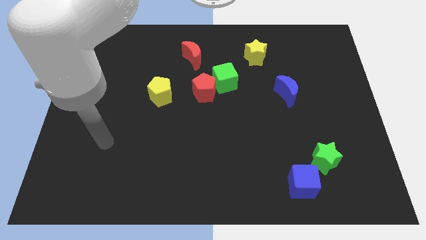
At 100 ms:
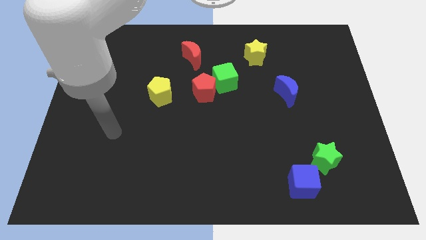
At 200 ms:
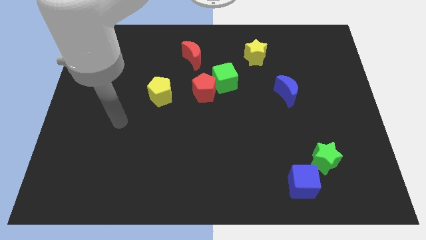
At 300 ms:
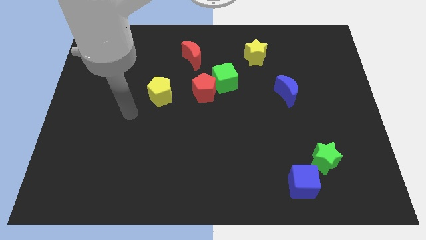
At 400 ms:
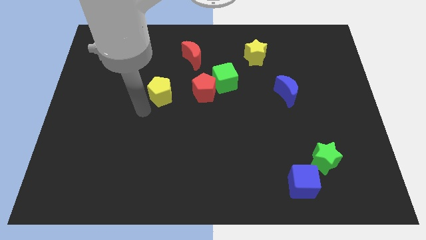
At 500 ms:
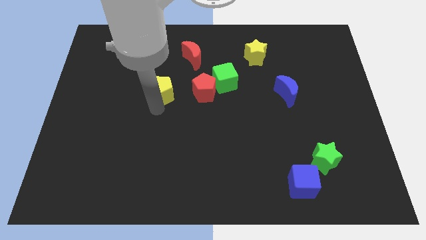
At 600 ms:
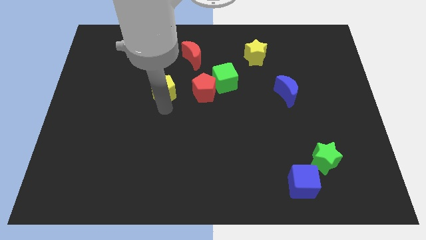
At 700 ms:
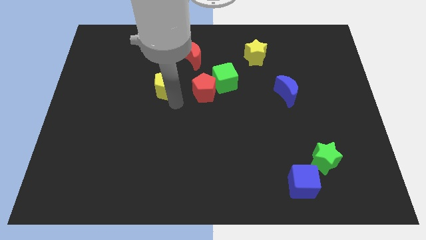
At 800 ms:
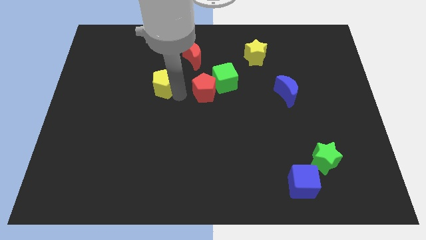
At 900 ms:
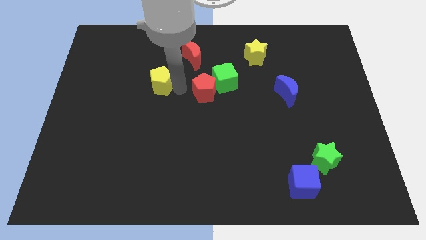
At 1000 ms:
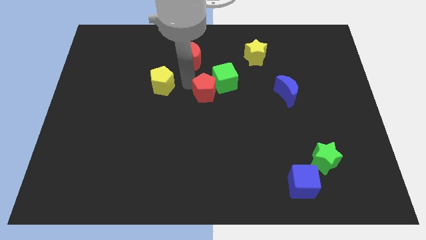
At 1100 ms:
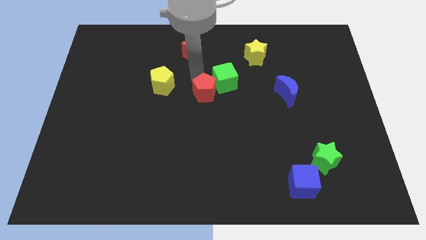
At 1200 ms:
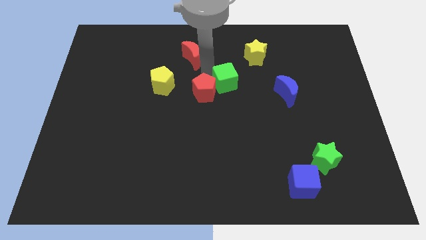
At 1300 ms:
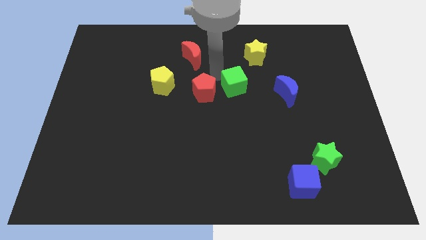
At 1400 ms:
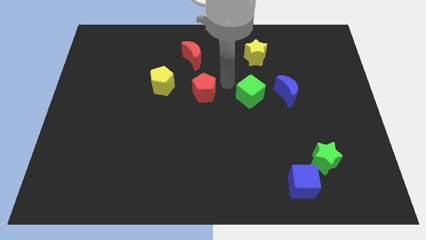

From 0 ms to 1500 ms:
move the red pentagon away from the green cube

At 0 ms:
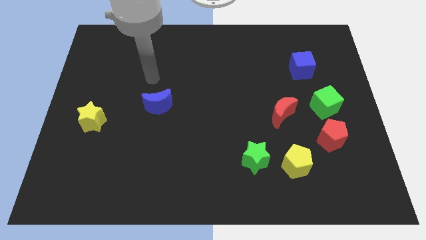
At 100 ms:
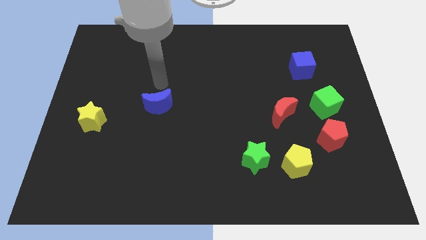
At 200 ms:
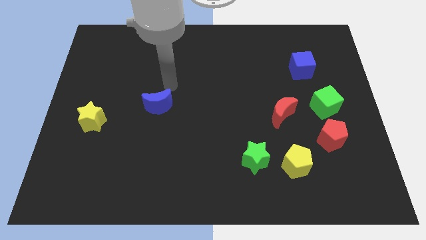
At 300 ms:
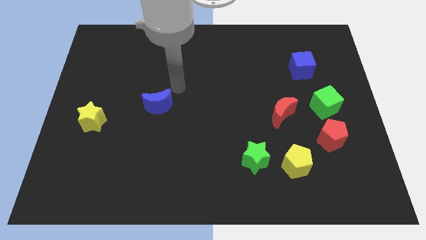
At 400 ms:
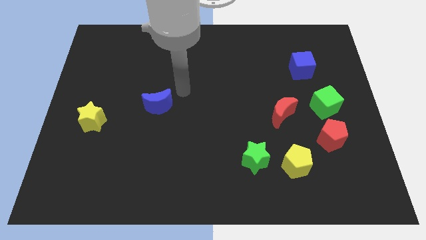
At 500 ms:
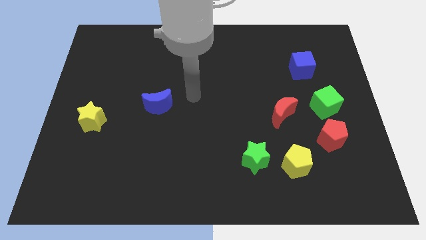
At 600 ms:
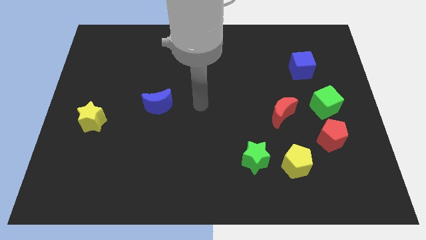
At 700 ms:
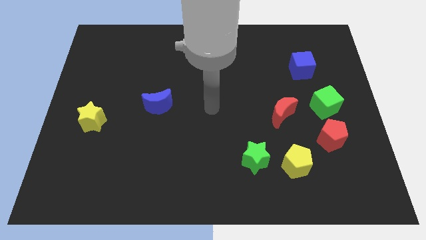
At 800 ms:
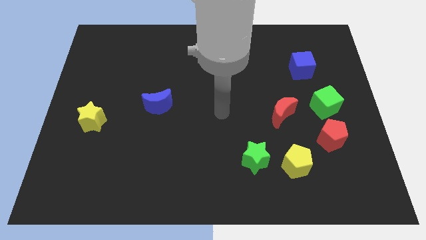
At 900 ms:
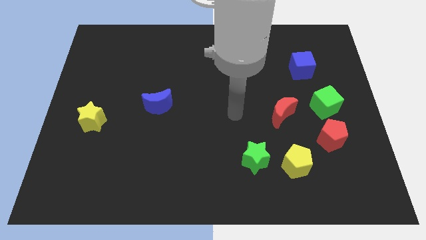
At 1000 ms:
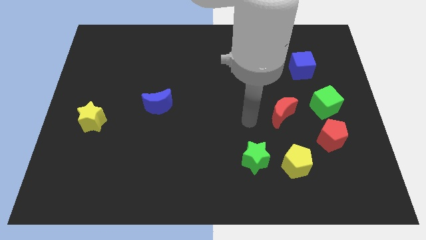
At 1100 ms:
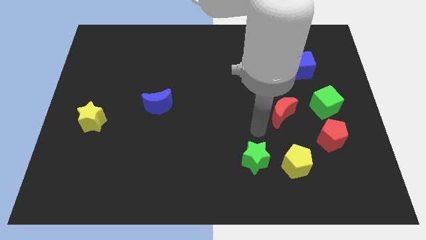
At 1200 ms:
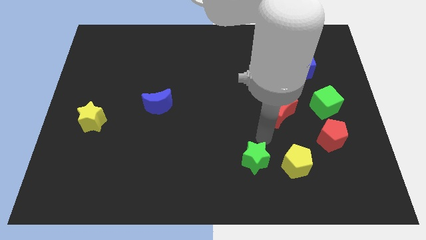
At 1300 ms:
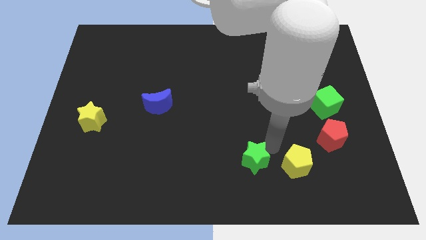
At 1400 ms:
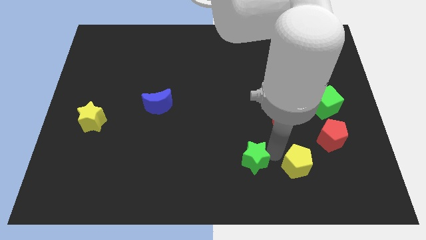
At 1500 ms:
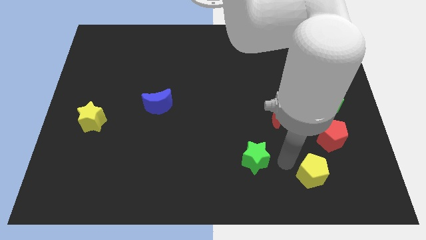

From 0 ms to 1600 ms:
move the green star away from the yellow pentagon

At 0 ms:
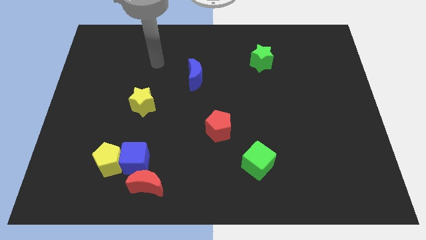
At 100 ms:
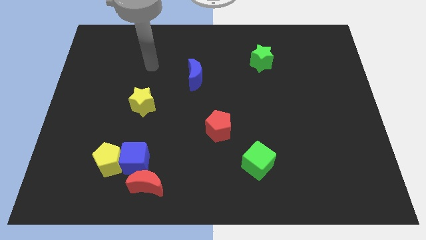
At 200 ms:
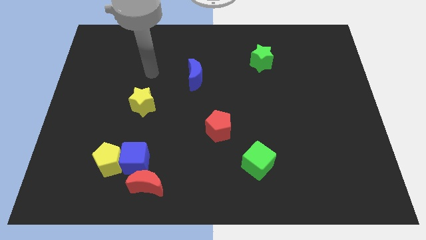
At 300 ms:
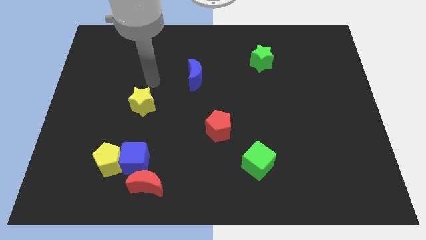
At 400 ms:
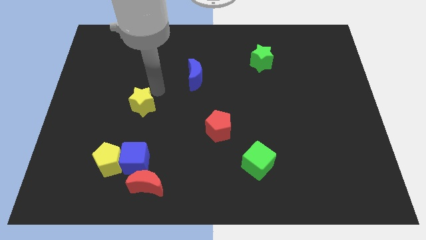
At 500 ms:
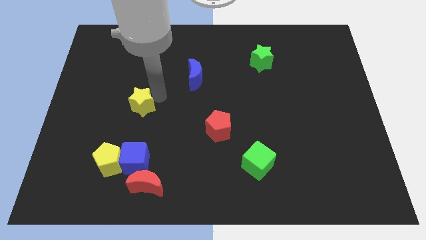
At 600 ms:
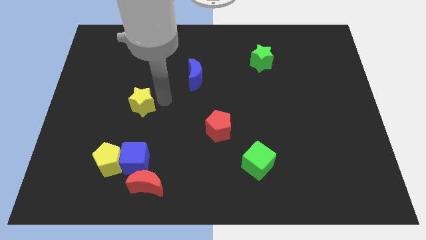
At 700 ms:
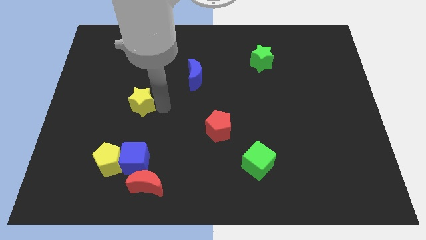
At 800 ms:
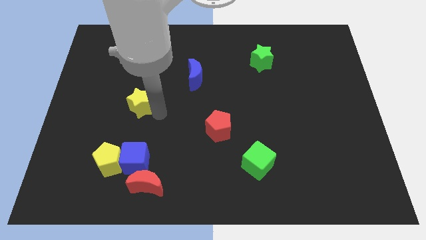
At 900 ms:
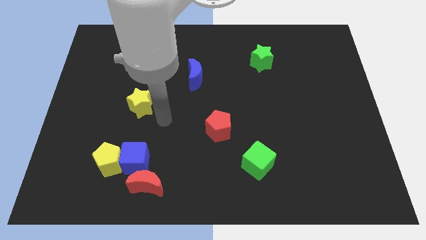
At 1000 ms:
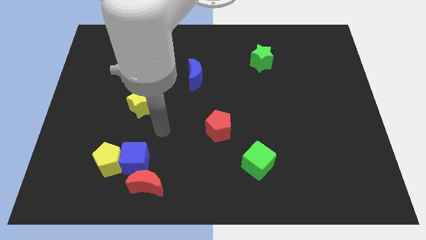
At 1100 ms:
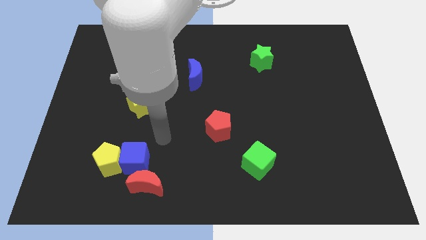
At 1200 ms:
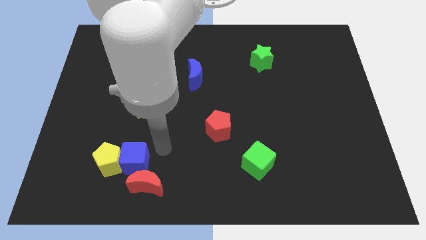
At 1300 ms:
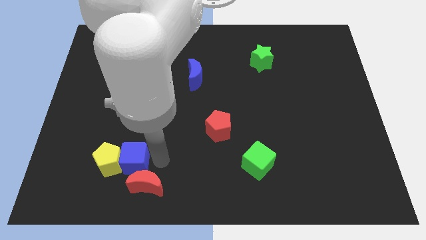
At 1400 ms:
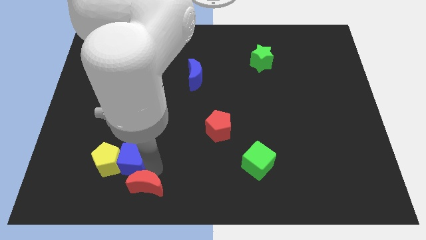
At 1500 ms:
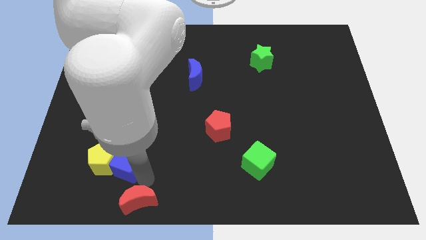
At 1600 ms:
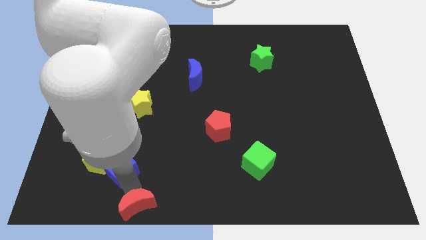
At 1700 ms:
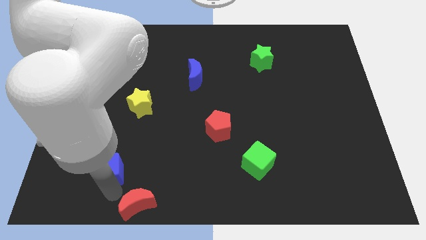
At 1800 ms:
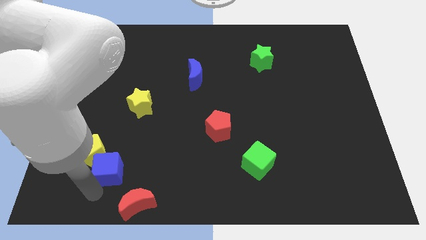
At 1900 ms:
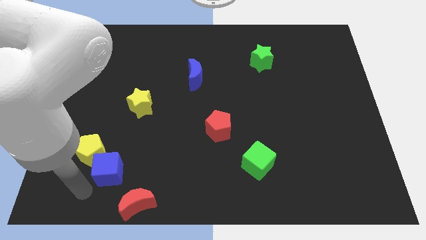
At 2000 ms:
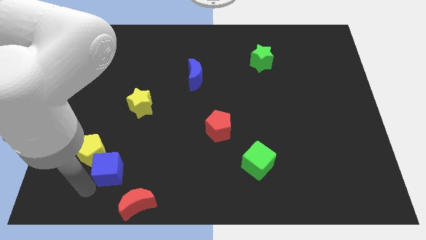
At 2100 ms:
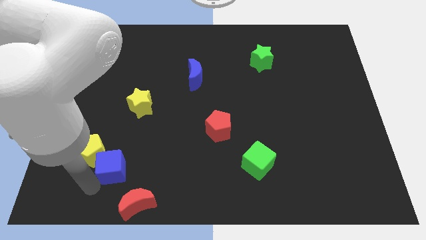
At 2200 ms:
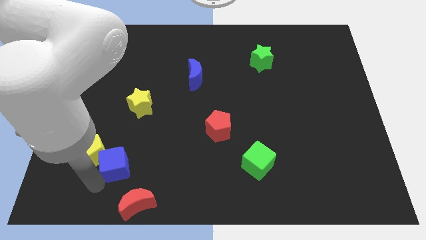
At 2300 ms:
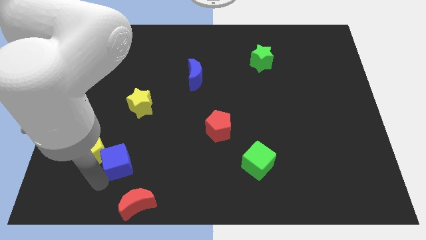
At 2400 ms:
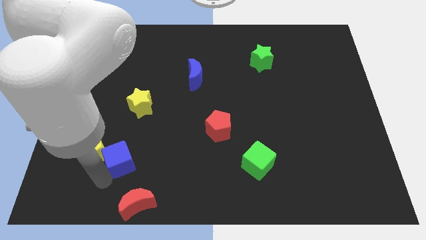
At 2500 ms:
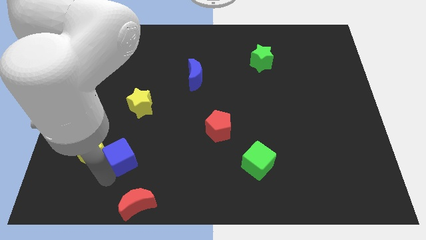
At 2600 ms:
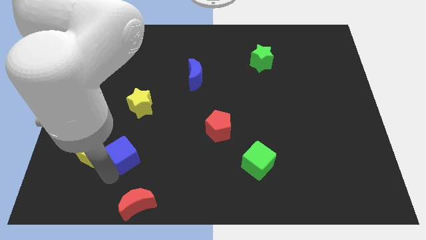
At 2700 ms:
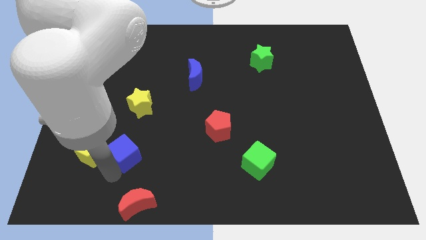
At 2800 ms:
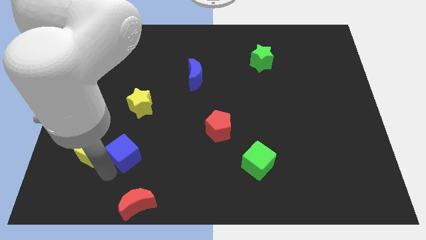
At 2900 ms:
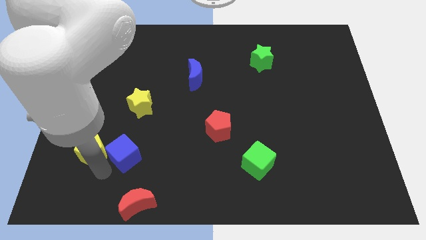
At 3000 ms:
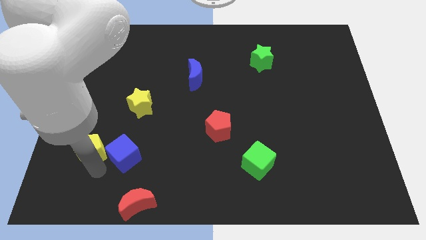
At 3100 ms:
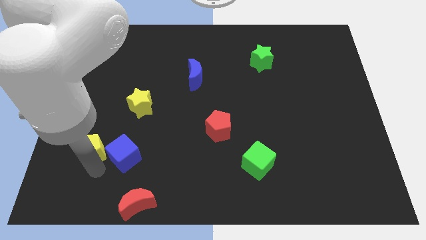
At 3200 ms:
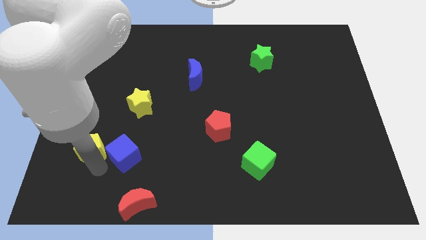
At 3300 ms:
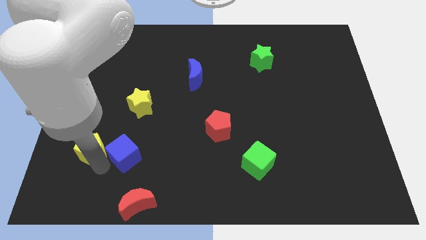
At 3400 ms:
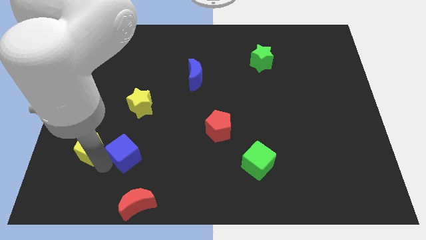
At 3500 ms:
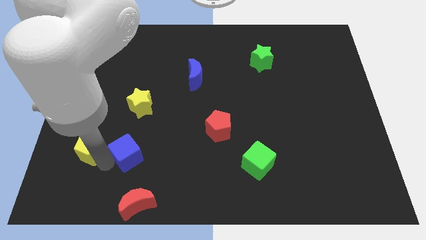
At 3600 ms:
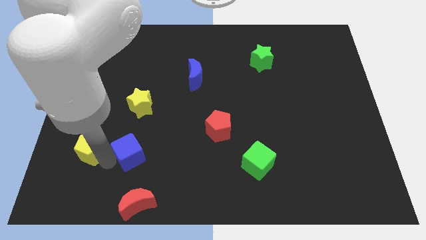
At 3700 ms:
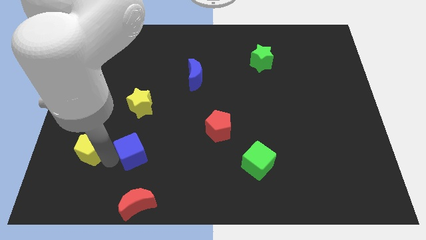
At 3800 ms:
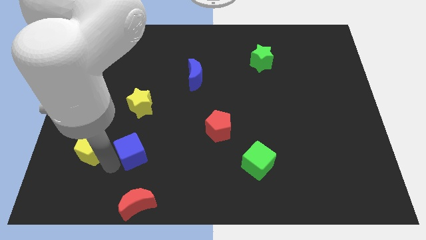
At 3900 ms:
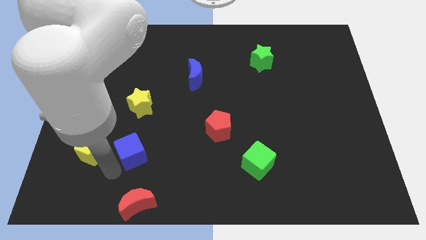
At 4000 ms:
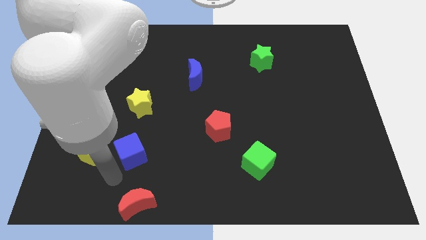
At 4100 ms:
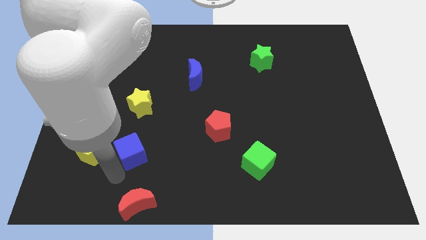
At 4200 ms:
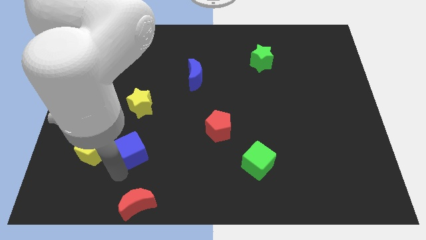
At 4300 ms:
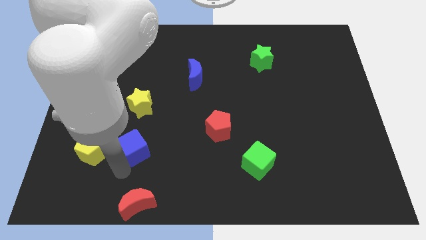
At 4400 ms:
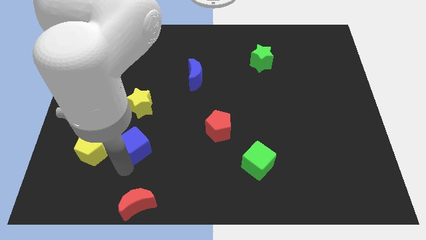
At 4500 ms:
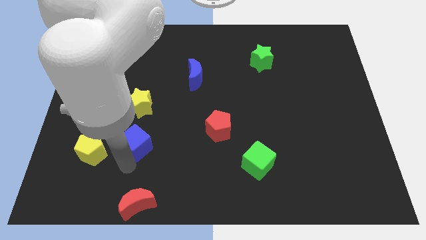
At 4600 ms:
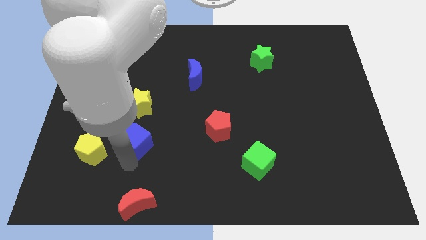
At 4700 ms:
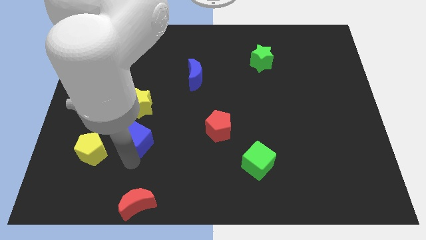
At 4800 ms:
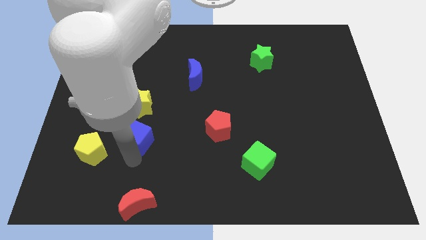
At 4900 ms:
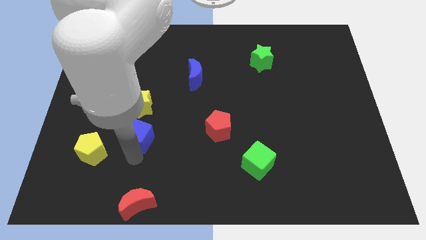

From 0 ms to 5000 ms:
move the blue cube away from the yellow pentagon and red moon

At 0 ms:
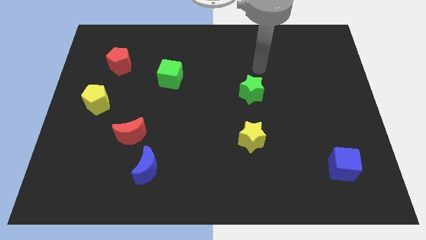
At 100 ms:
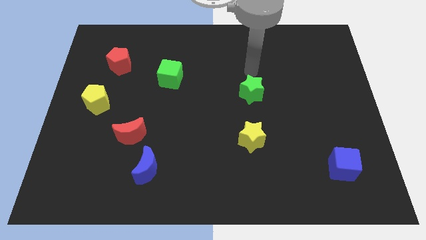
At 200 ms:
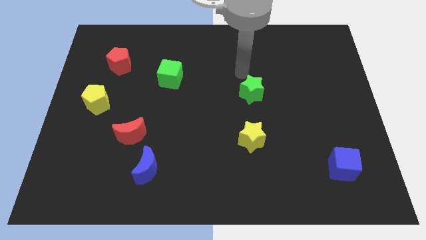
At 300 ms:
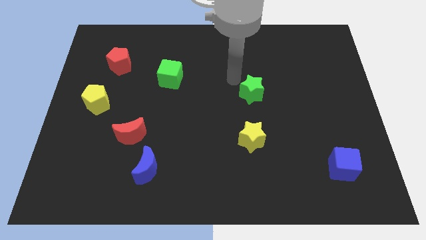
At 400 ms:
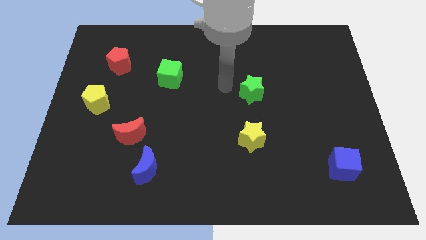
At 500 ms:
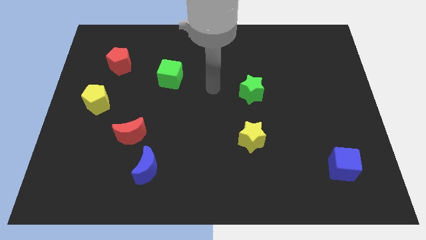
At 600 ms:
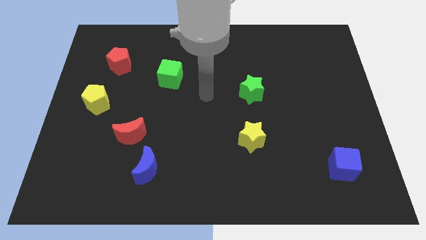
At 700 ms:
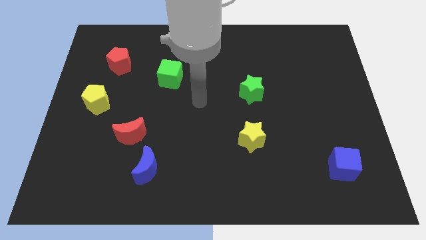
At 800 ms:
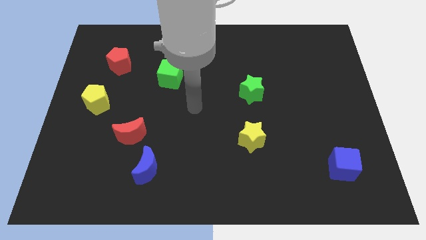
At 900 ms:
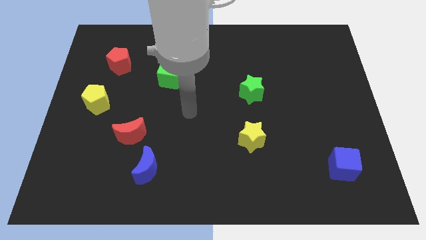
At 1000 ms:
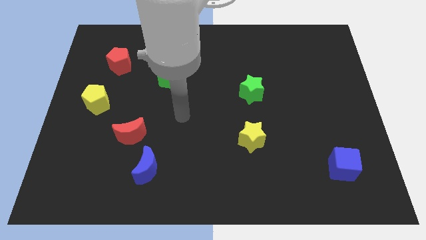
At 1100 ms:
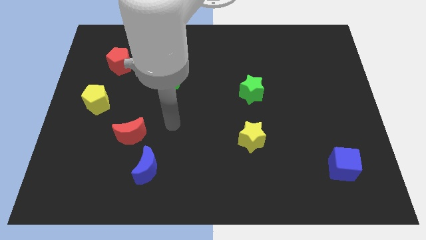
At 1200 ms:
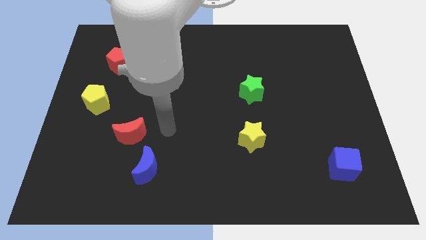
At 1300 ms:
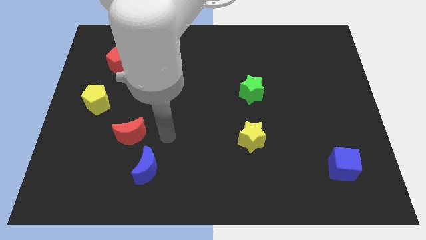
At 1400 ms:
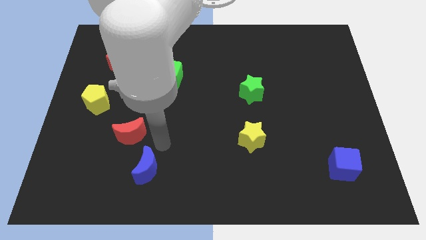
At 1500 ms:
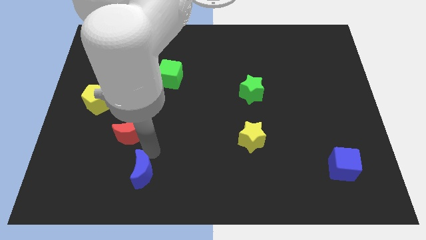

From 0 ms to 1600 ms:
pull the red moon apart from the blue moon
